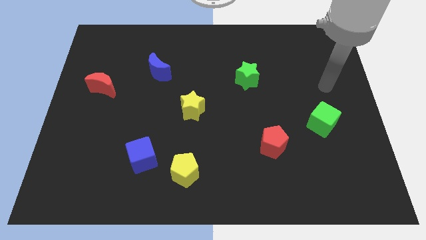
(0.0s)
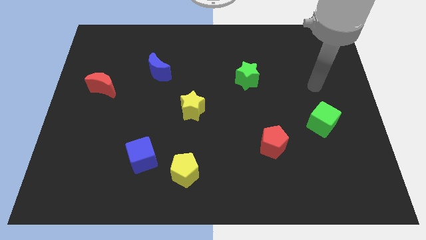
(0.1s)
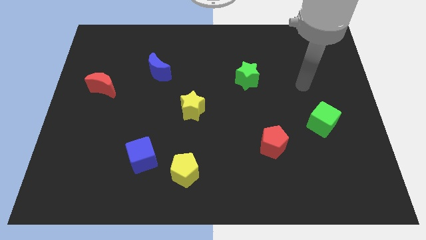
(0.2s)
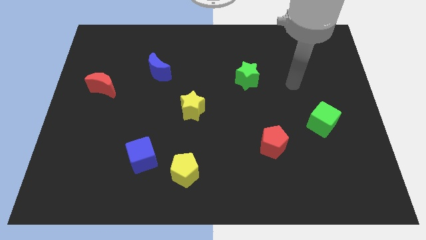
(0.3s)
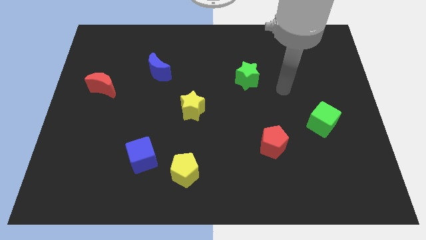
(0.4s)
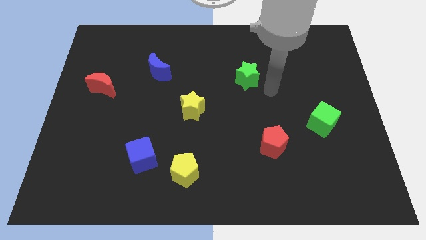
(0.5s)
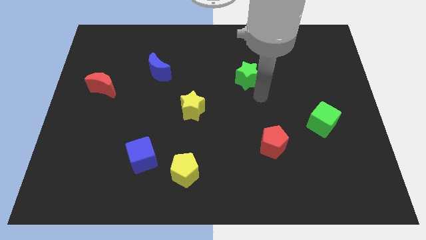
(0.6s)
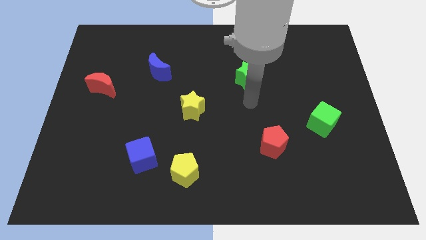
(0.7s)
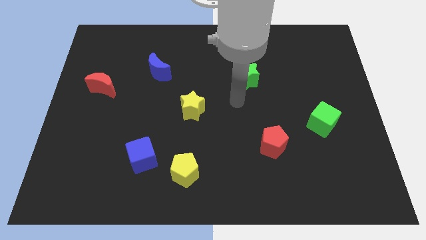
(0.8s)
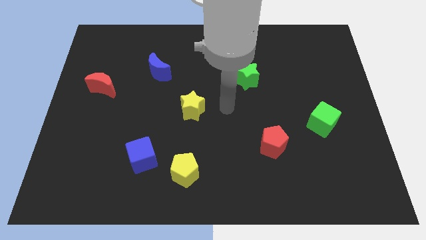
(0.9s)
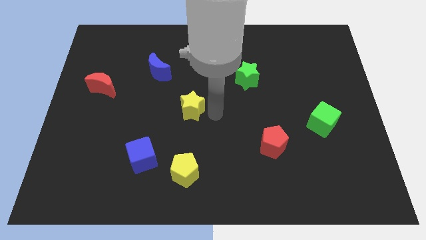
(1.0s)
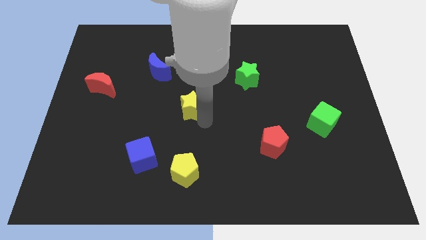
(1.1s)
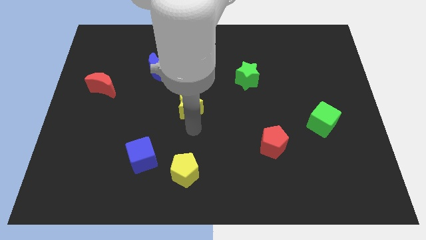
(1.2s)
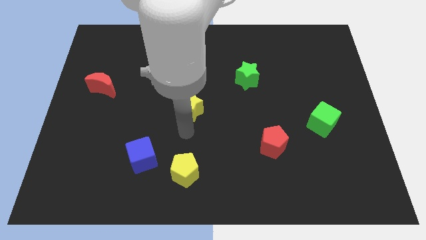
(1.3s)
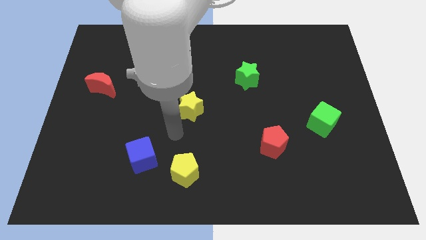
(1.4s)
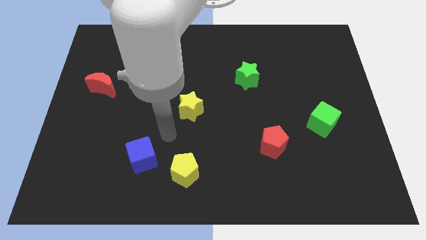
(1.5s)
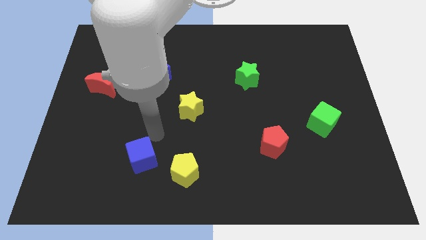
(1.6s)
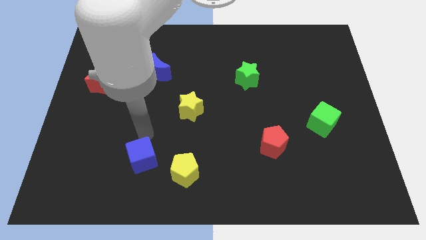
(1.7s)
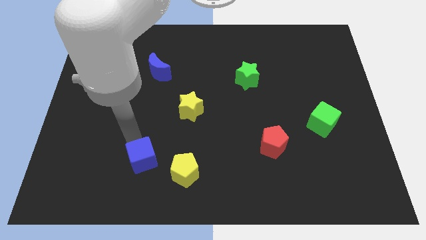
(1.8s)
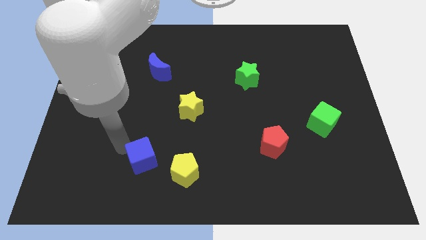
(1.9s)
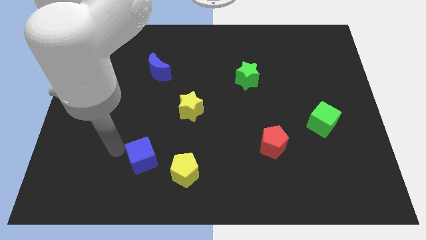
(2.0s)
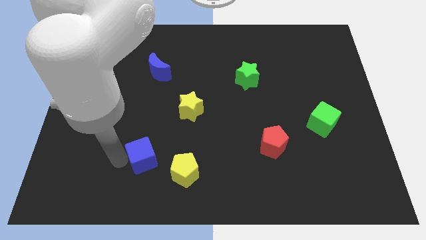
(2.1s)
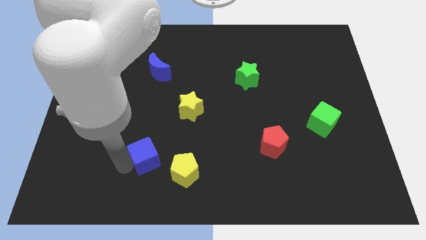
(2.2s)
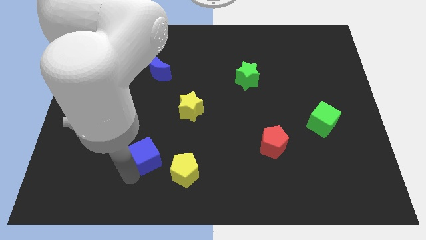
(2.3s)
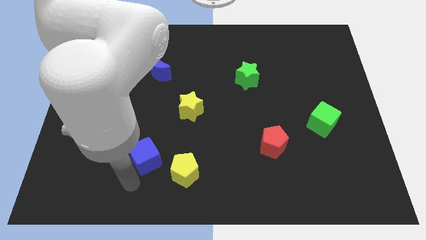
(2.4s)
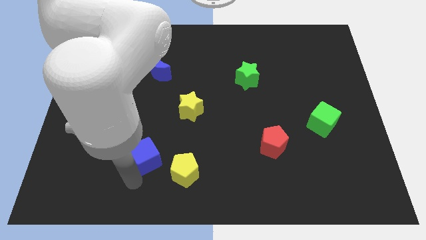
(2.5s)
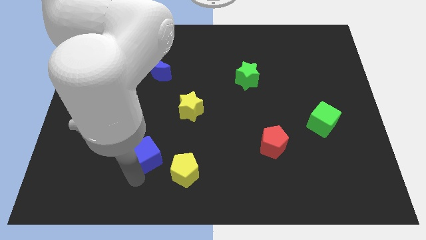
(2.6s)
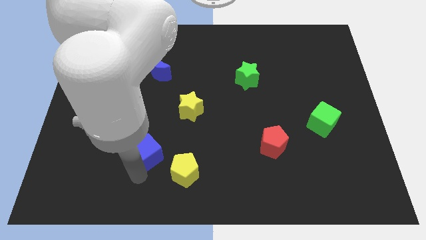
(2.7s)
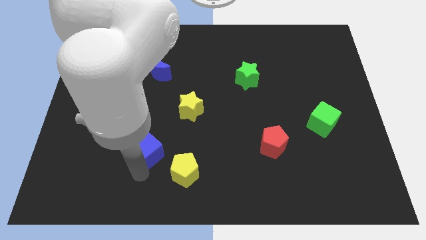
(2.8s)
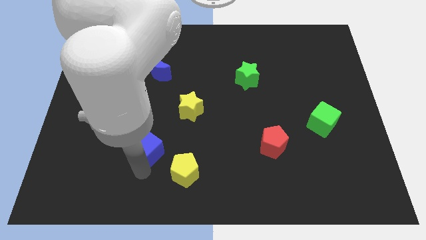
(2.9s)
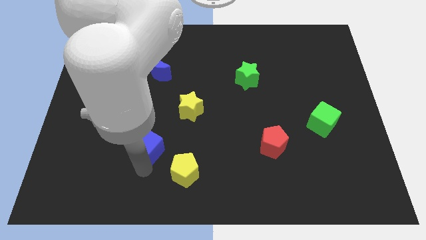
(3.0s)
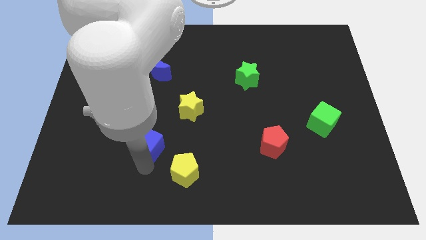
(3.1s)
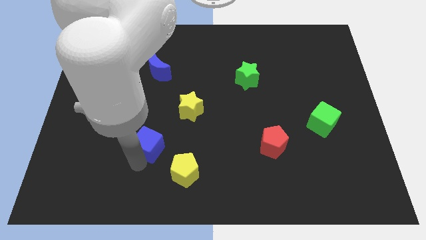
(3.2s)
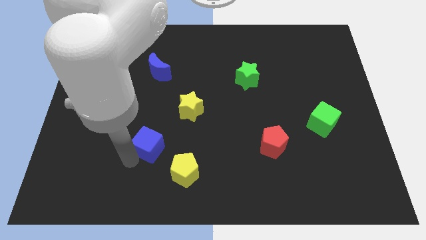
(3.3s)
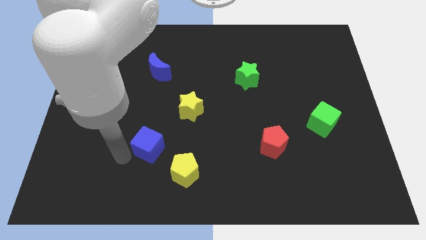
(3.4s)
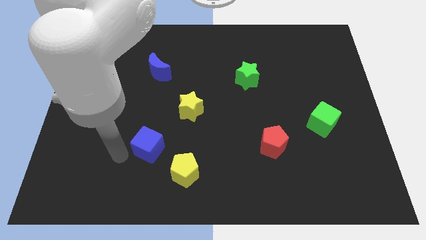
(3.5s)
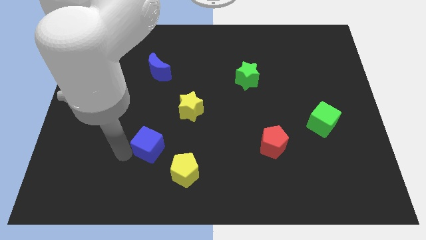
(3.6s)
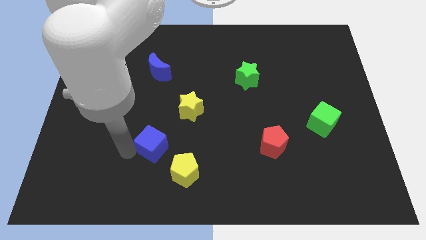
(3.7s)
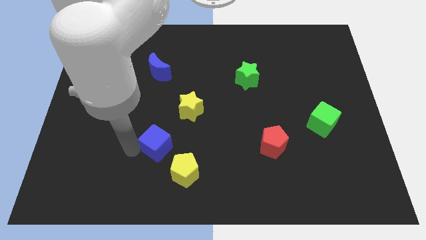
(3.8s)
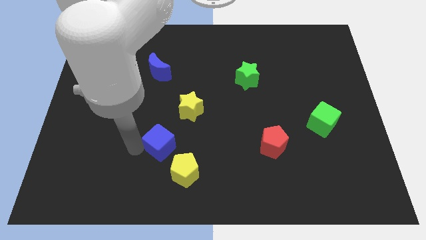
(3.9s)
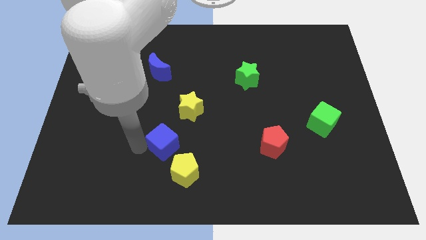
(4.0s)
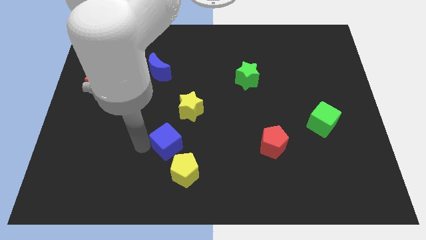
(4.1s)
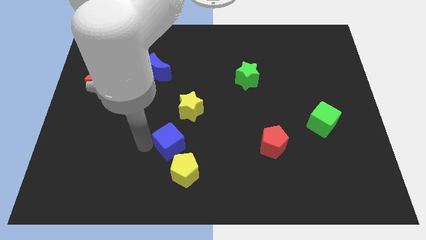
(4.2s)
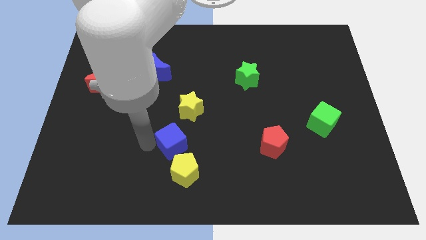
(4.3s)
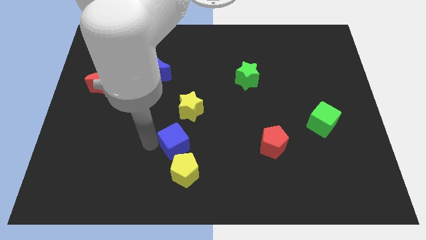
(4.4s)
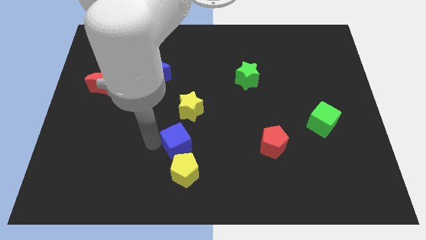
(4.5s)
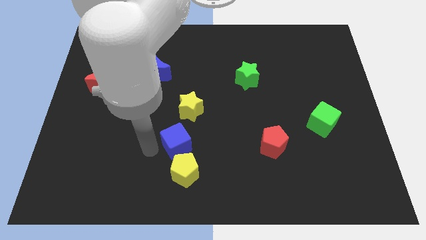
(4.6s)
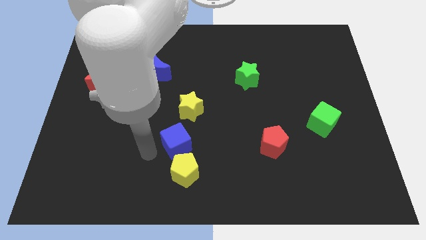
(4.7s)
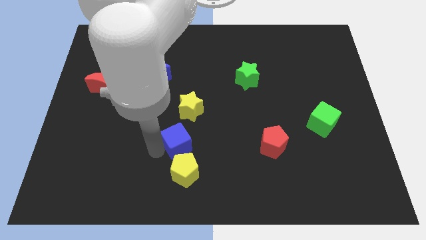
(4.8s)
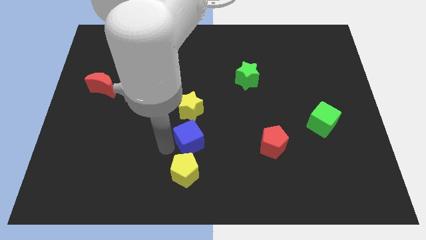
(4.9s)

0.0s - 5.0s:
slide the blue cube to the center

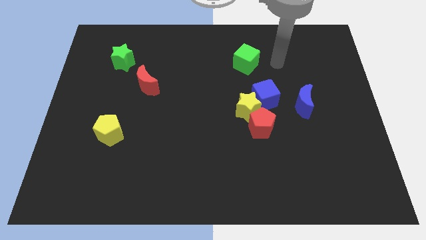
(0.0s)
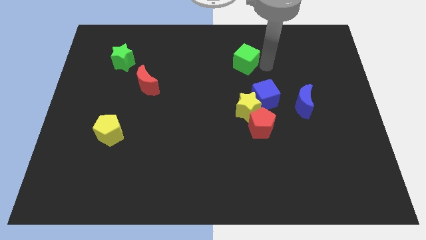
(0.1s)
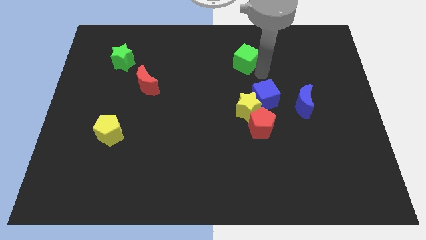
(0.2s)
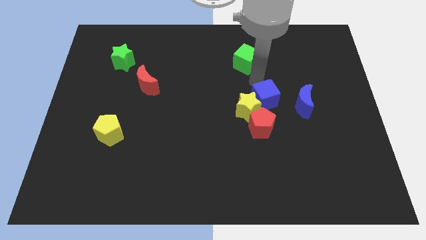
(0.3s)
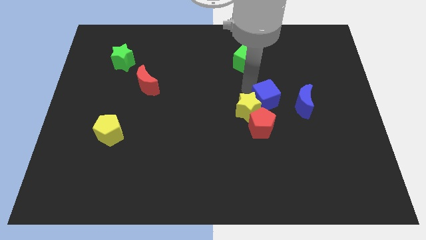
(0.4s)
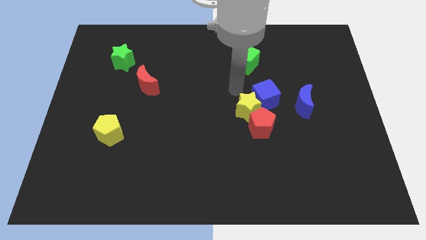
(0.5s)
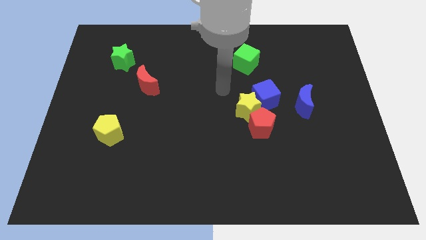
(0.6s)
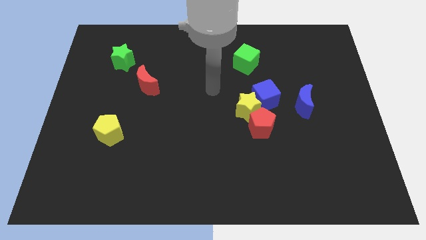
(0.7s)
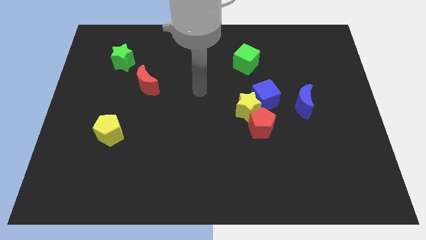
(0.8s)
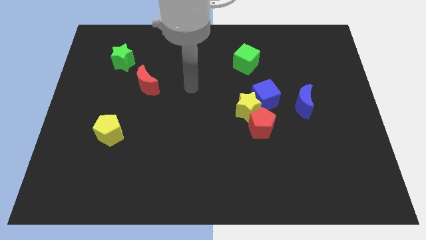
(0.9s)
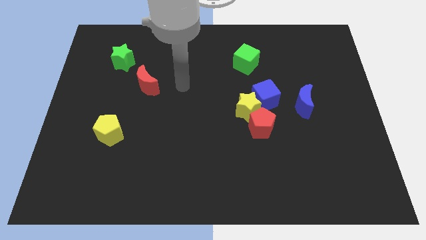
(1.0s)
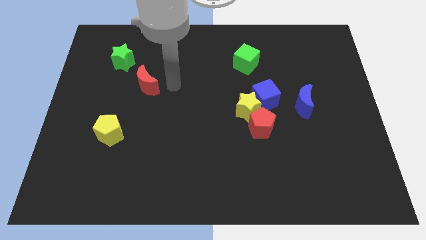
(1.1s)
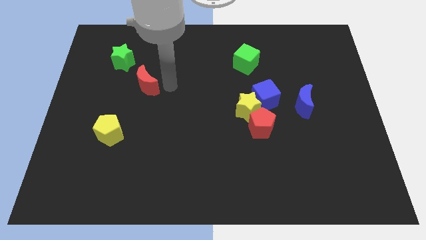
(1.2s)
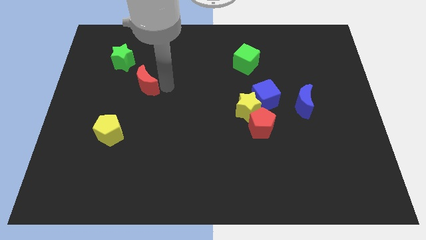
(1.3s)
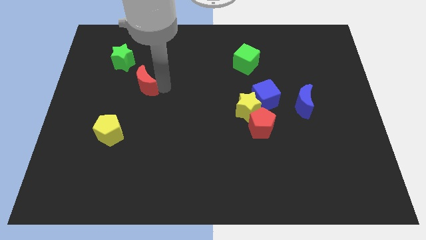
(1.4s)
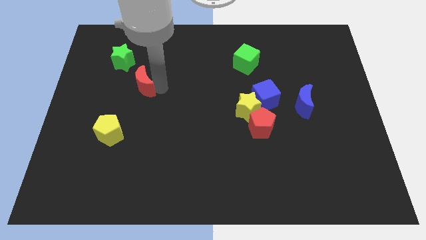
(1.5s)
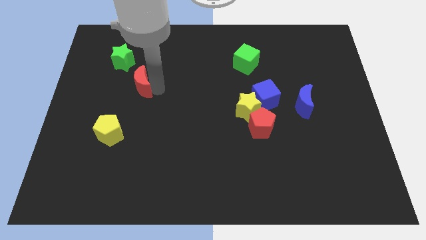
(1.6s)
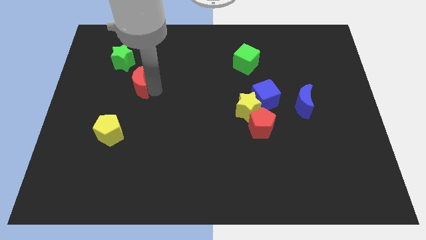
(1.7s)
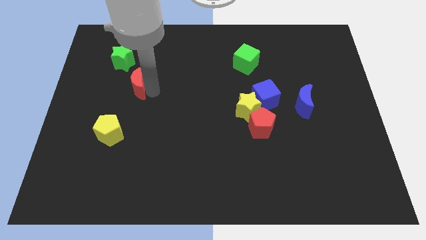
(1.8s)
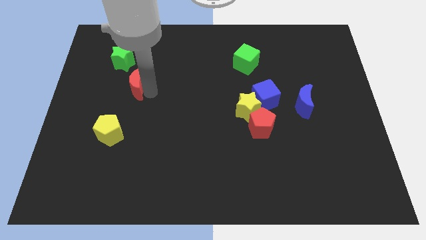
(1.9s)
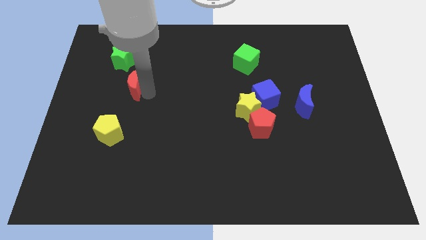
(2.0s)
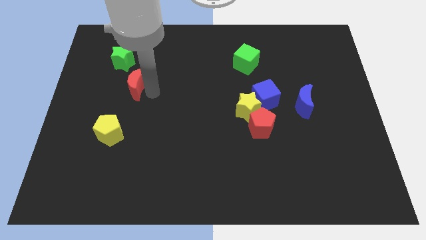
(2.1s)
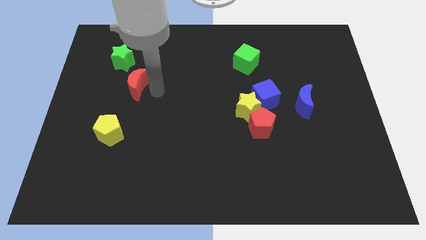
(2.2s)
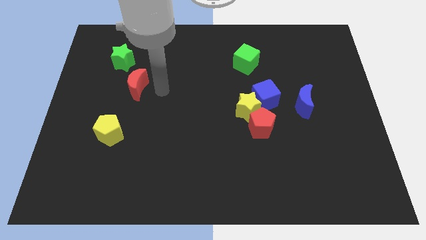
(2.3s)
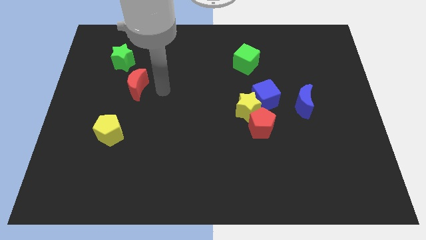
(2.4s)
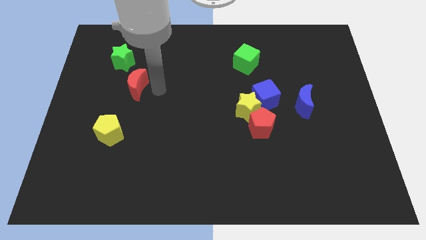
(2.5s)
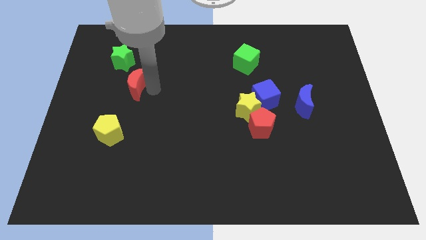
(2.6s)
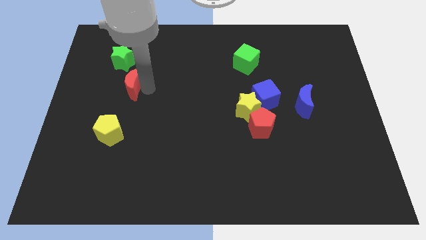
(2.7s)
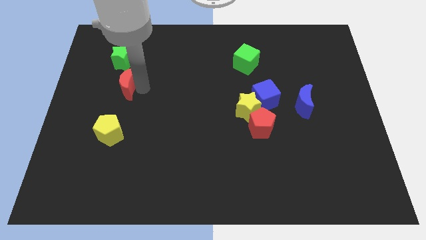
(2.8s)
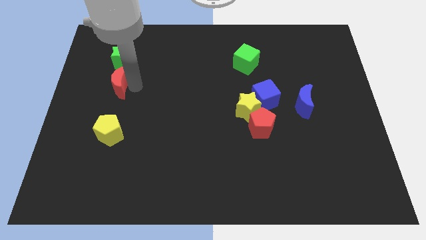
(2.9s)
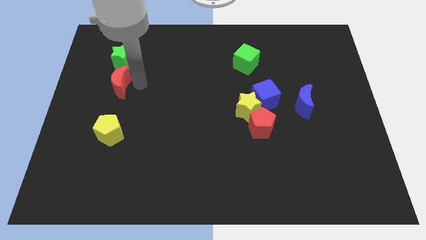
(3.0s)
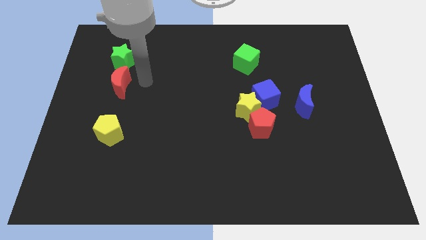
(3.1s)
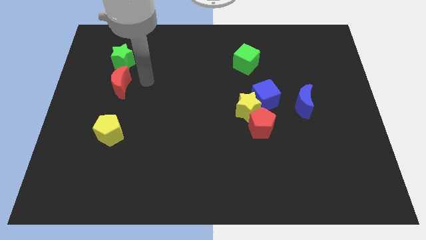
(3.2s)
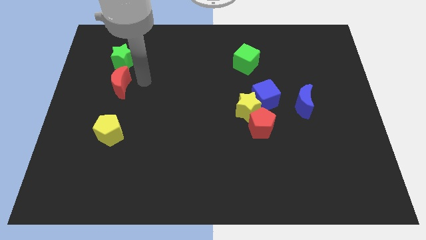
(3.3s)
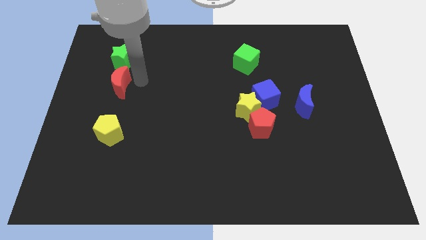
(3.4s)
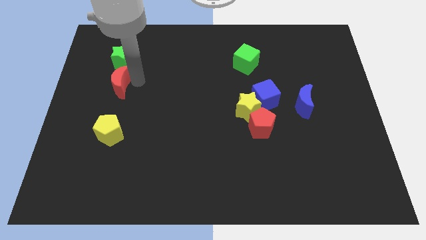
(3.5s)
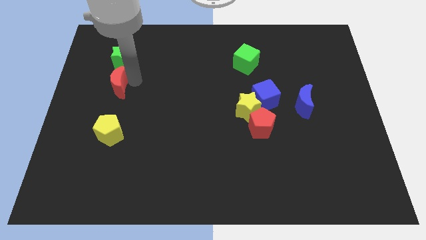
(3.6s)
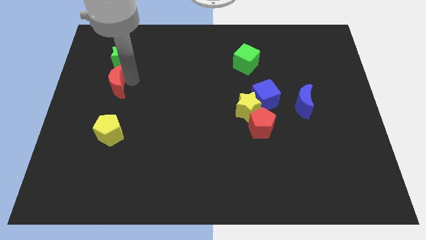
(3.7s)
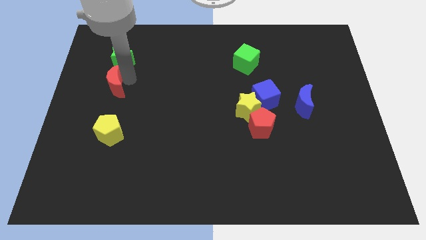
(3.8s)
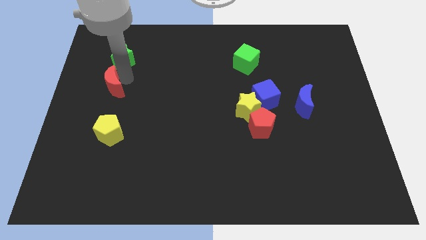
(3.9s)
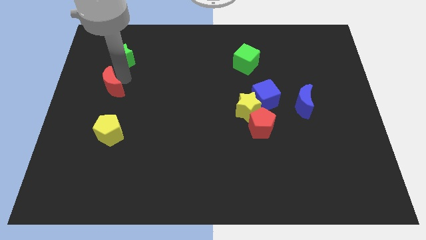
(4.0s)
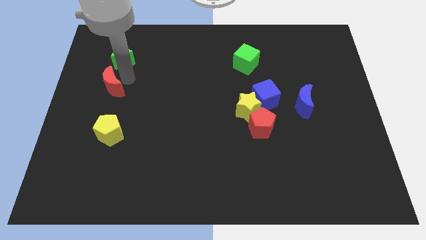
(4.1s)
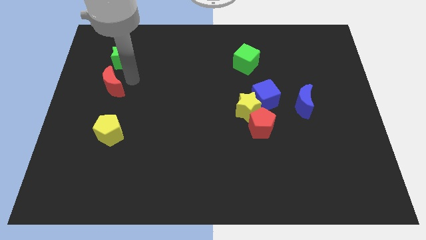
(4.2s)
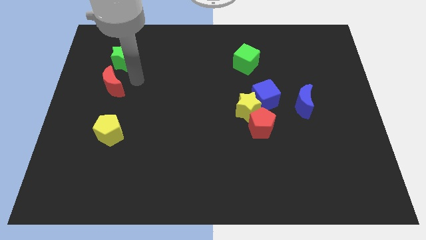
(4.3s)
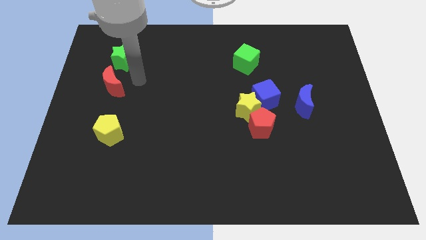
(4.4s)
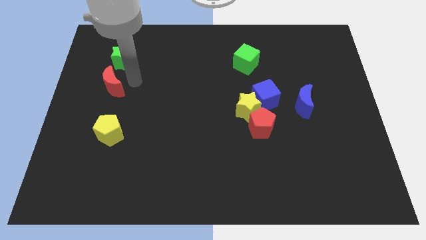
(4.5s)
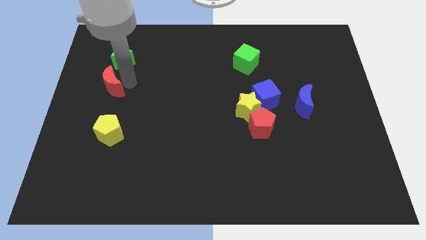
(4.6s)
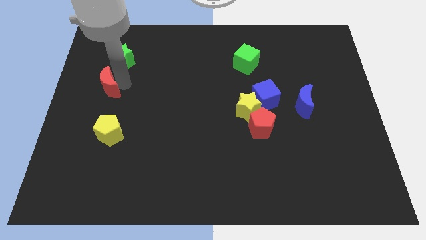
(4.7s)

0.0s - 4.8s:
move the red moon to the left side of the board
